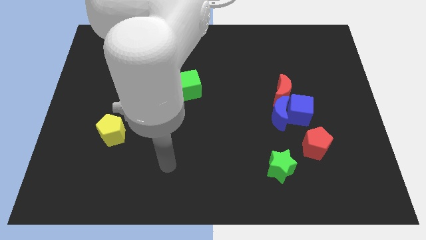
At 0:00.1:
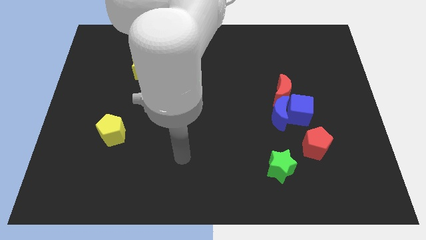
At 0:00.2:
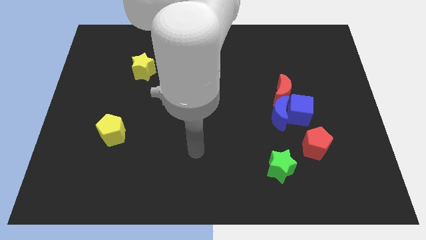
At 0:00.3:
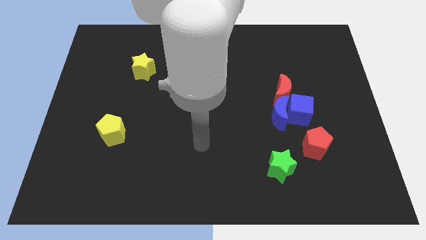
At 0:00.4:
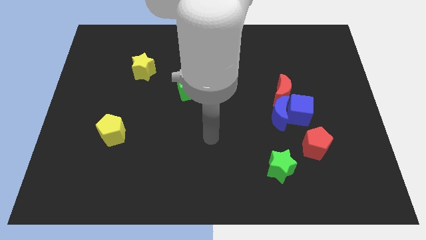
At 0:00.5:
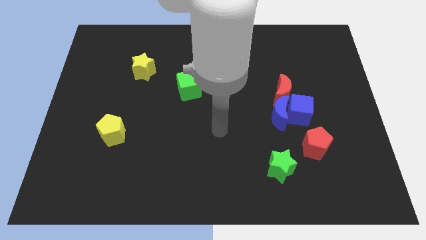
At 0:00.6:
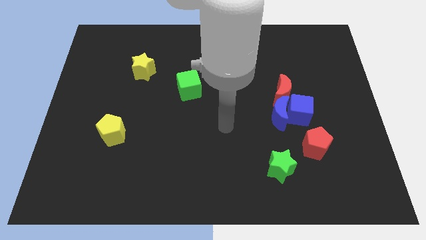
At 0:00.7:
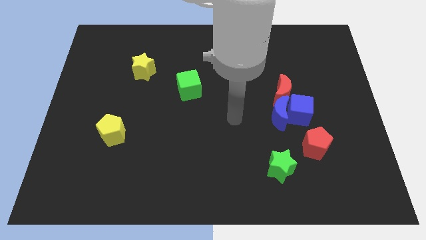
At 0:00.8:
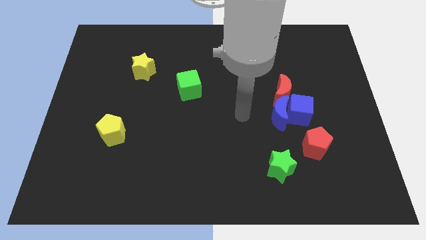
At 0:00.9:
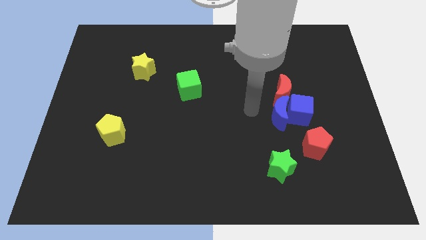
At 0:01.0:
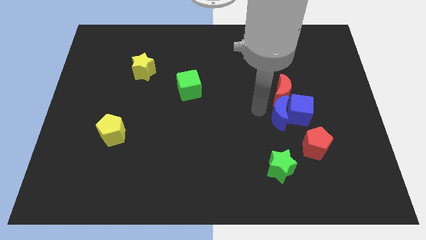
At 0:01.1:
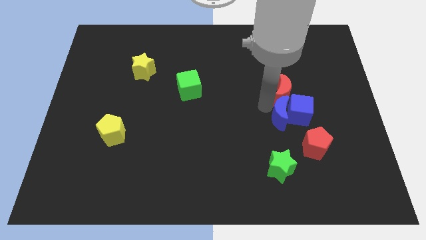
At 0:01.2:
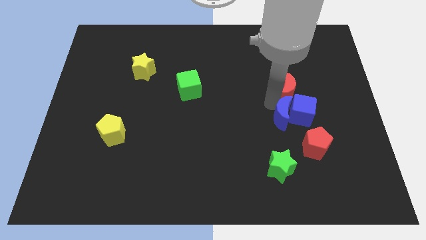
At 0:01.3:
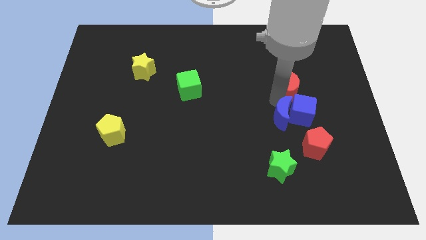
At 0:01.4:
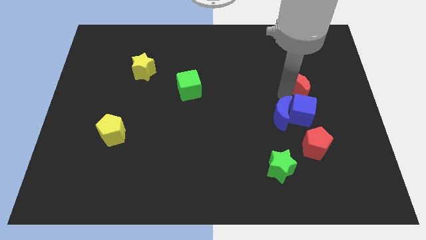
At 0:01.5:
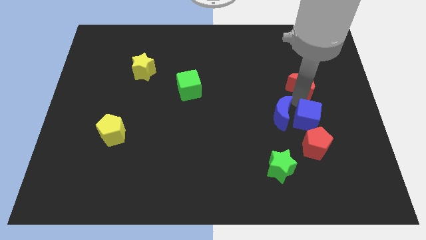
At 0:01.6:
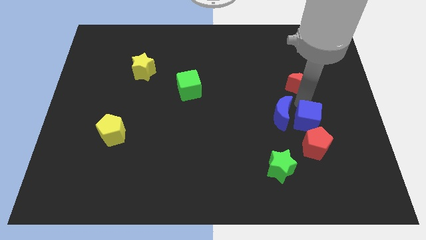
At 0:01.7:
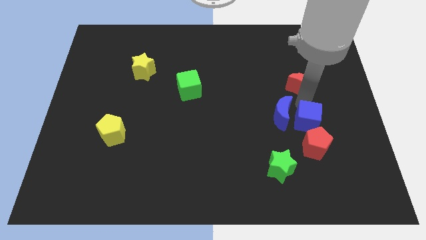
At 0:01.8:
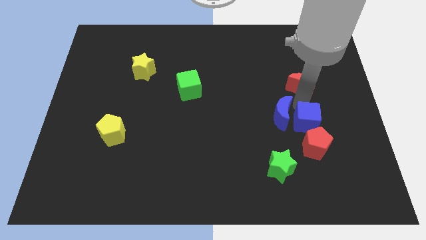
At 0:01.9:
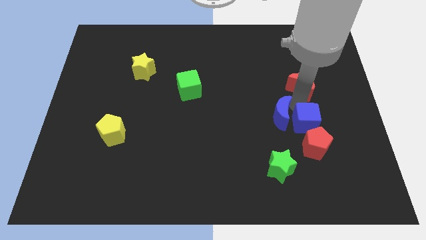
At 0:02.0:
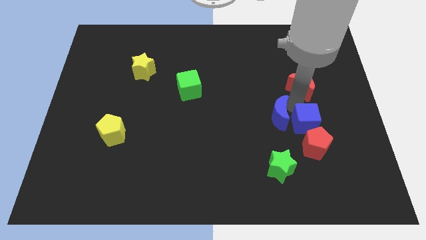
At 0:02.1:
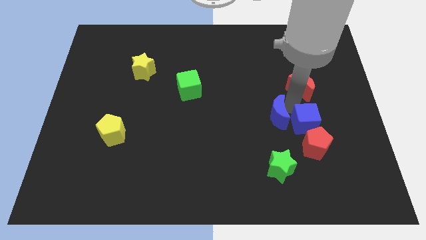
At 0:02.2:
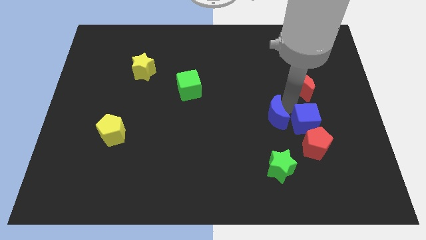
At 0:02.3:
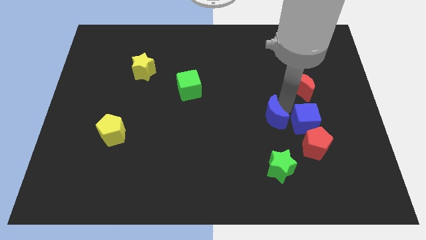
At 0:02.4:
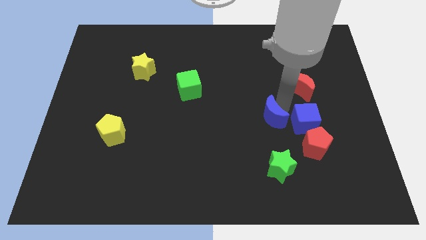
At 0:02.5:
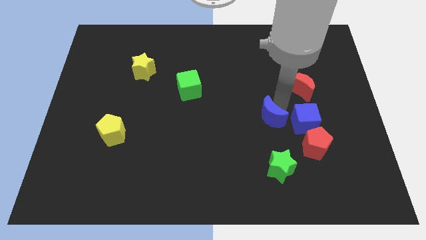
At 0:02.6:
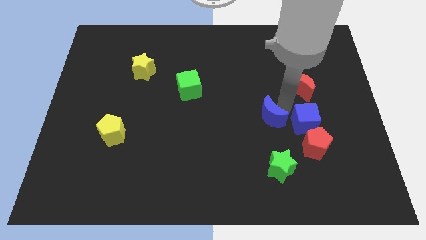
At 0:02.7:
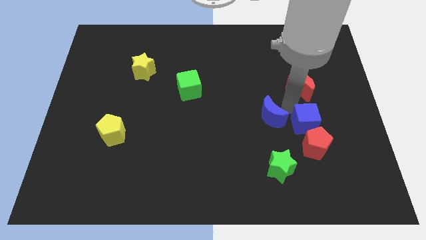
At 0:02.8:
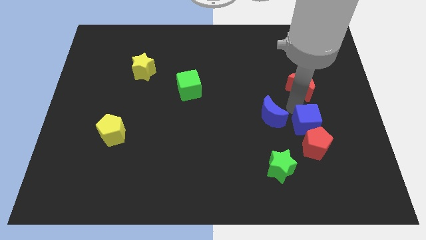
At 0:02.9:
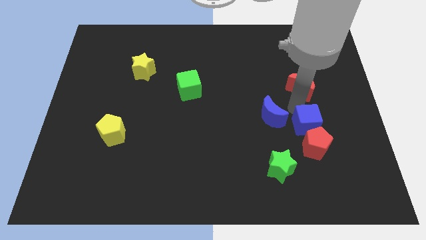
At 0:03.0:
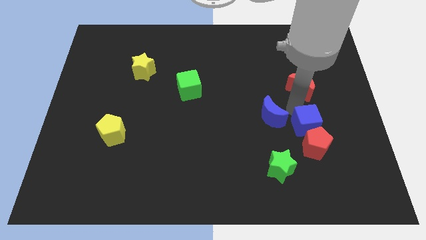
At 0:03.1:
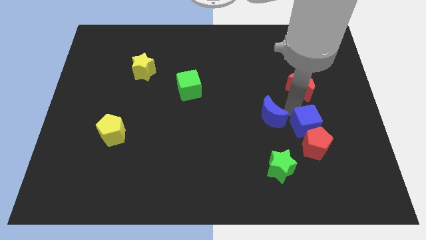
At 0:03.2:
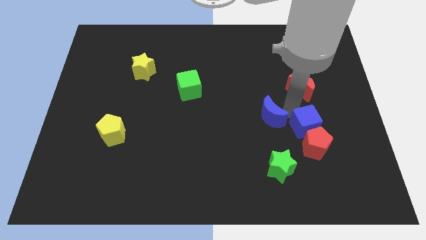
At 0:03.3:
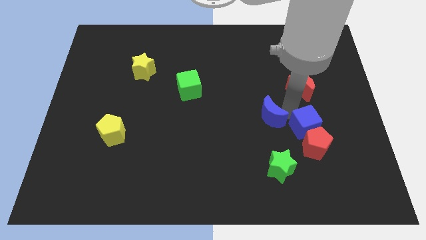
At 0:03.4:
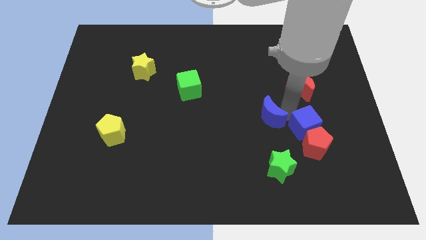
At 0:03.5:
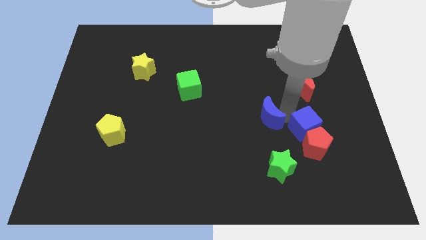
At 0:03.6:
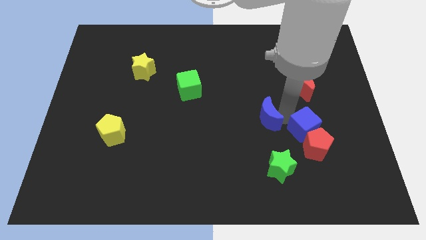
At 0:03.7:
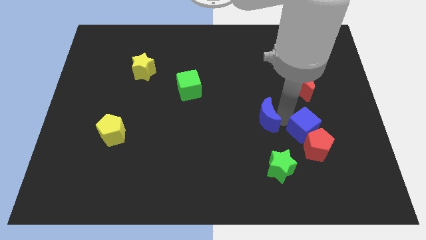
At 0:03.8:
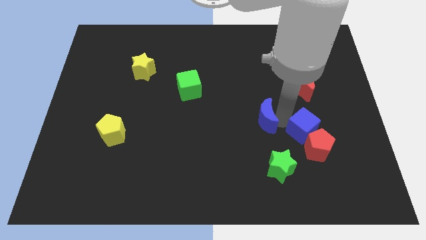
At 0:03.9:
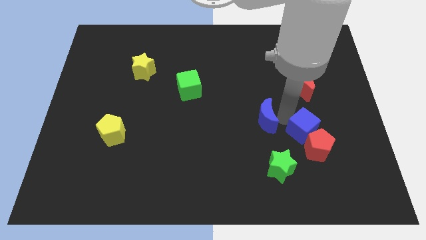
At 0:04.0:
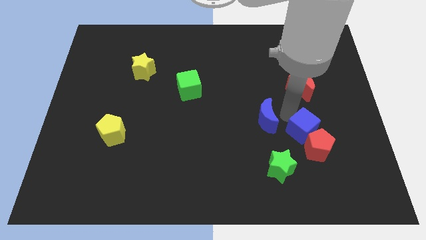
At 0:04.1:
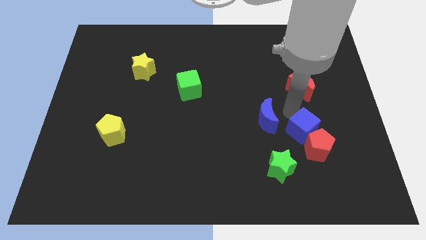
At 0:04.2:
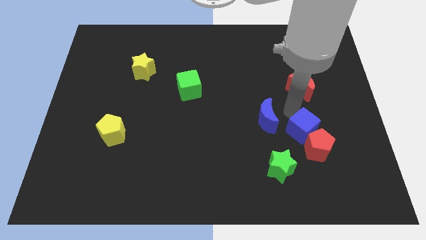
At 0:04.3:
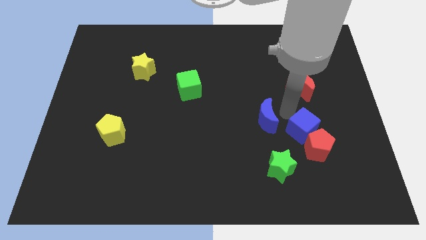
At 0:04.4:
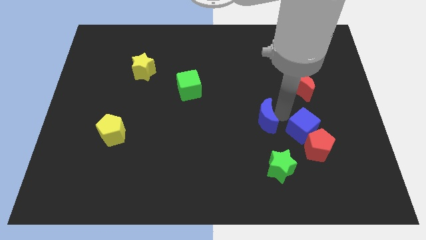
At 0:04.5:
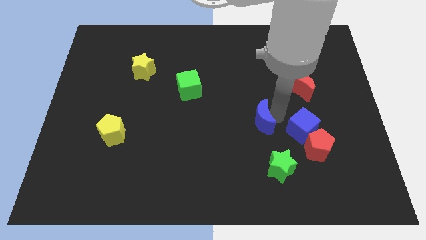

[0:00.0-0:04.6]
pull the blue moon apart from the blue cube and red moon

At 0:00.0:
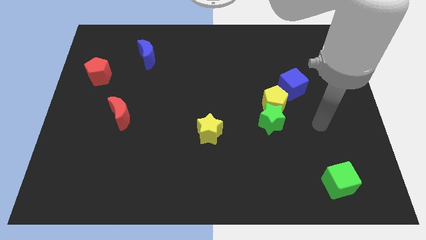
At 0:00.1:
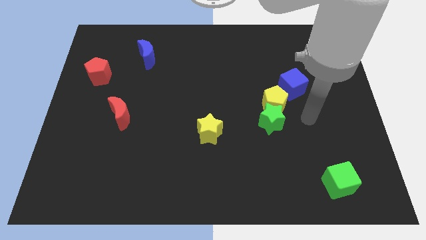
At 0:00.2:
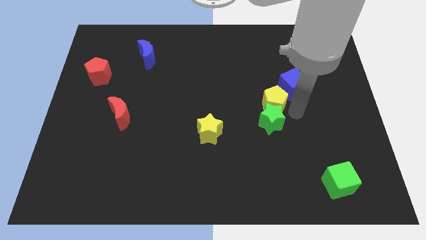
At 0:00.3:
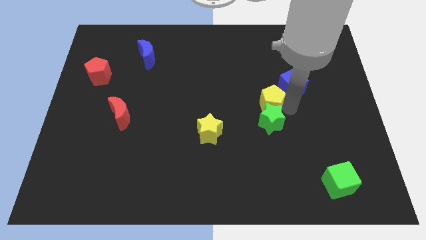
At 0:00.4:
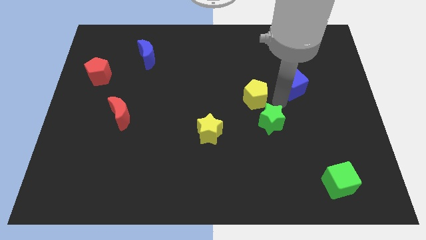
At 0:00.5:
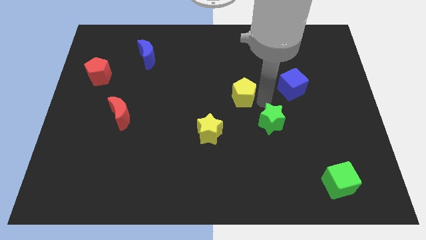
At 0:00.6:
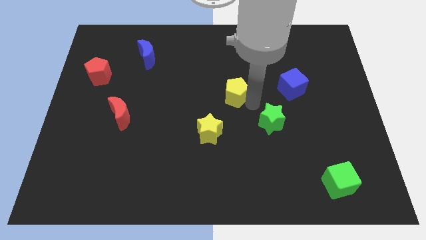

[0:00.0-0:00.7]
pull the green star apart from the yellow pentagon

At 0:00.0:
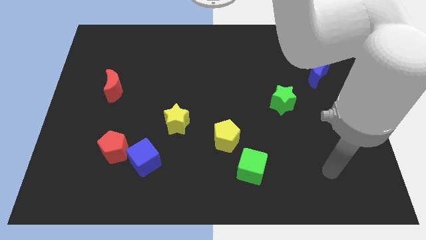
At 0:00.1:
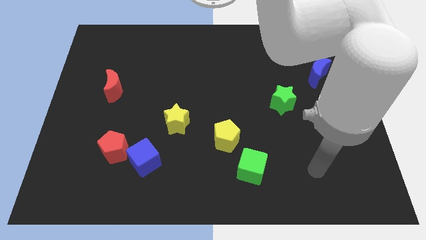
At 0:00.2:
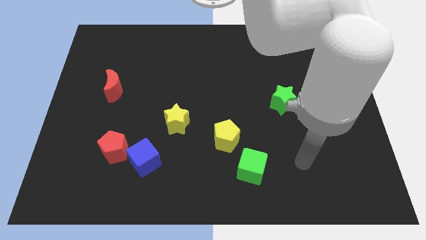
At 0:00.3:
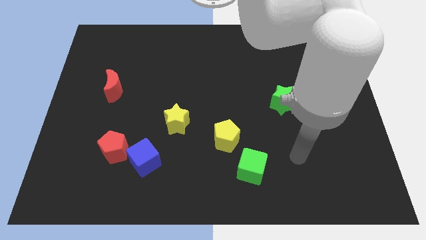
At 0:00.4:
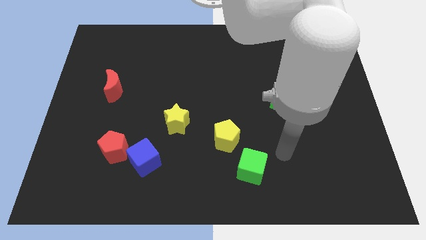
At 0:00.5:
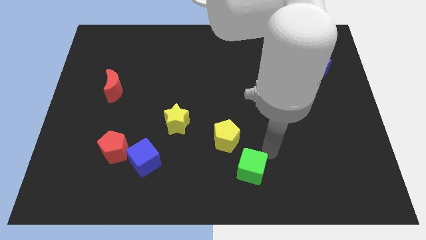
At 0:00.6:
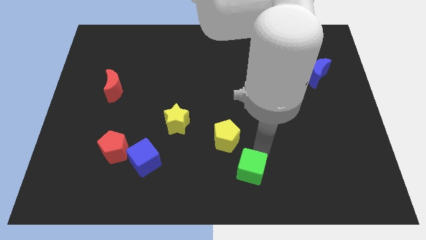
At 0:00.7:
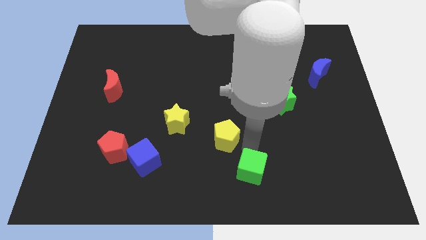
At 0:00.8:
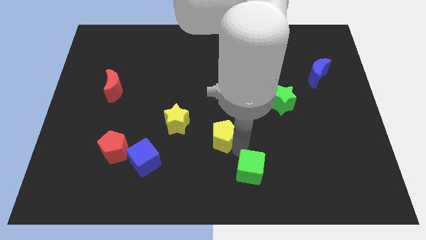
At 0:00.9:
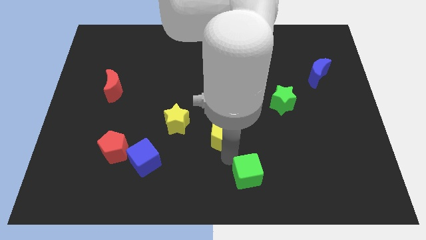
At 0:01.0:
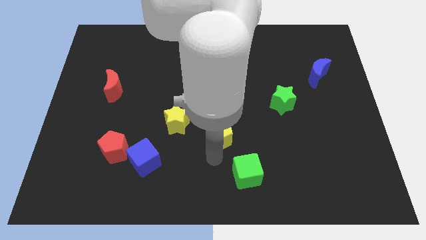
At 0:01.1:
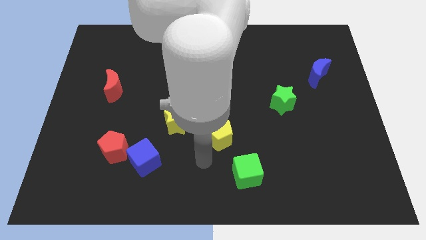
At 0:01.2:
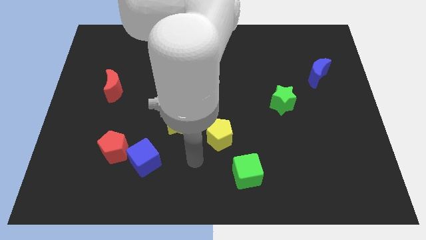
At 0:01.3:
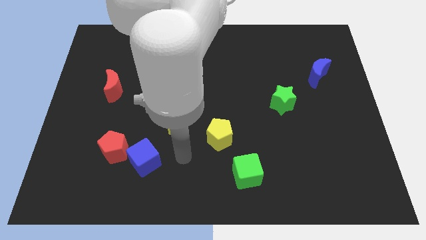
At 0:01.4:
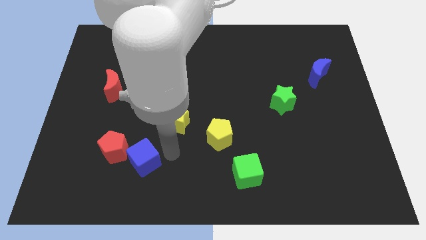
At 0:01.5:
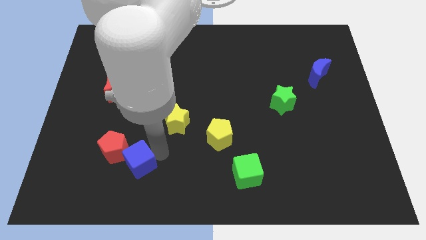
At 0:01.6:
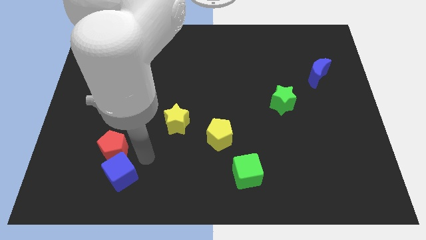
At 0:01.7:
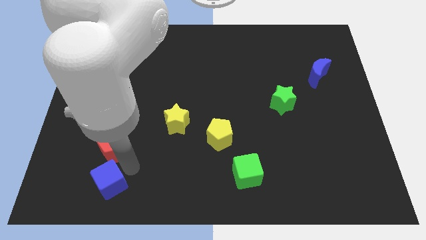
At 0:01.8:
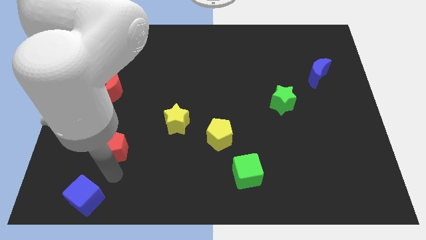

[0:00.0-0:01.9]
pull the red pentagon apart from the blue cube

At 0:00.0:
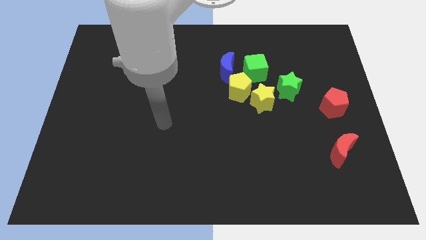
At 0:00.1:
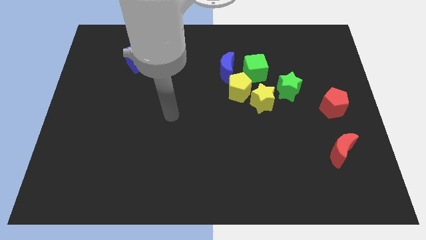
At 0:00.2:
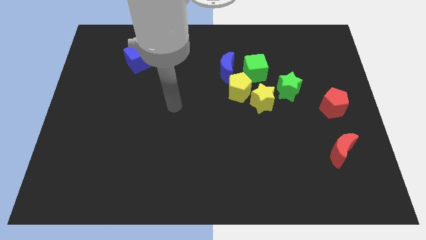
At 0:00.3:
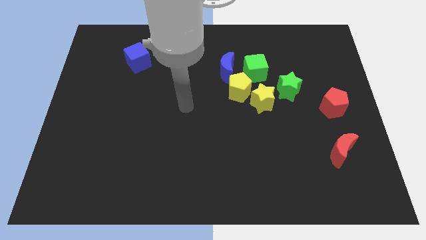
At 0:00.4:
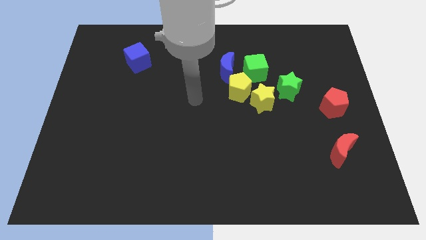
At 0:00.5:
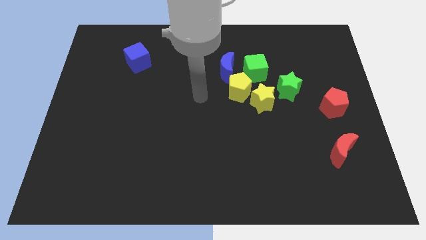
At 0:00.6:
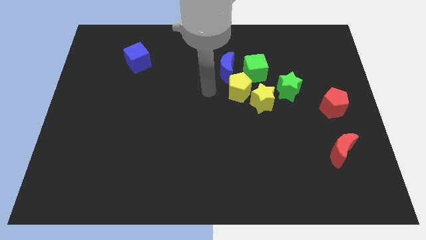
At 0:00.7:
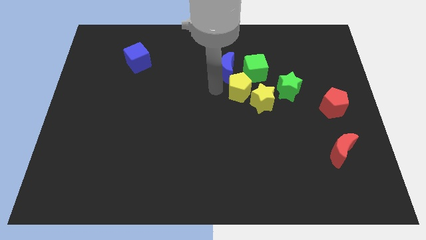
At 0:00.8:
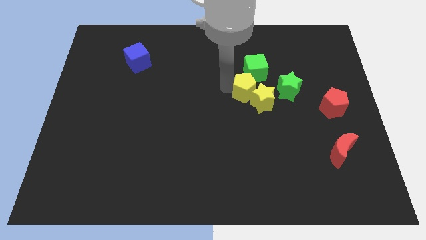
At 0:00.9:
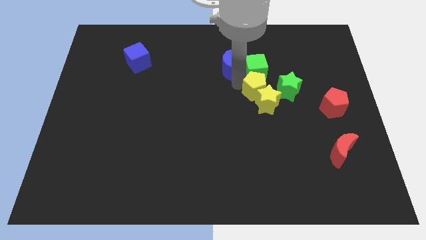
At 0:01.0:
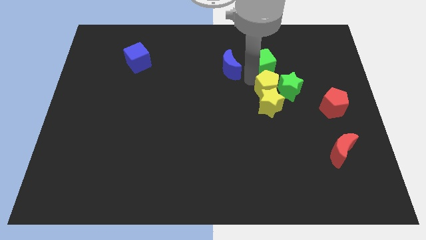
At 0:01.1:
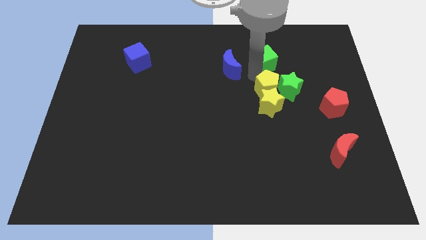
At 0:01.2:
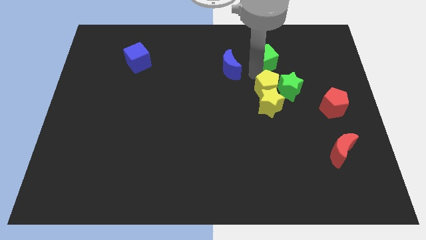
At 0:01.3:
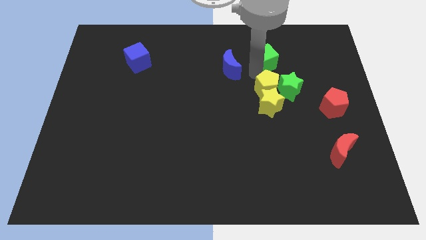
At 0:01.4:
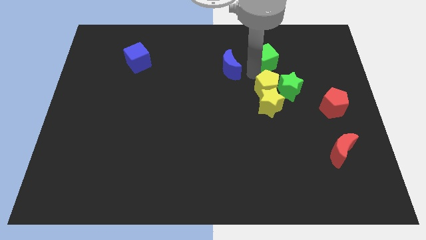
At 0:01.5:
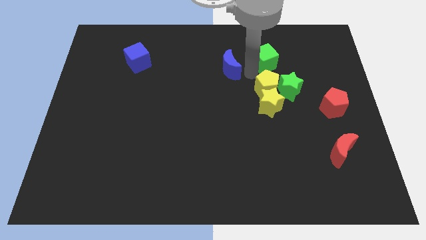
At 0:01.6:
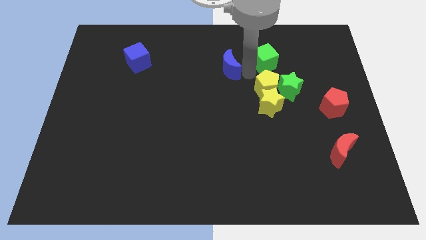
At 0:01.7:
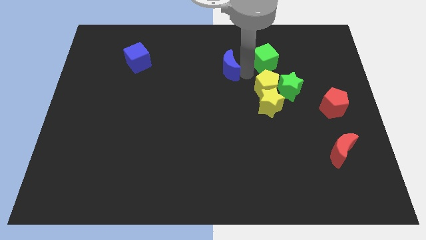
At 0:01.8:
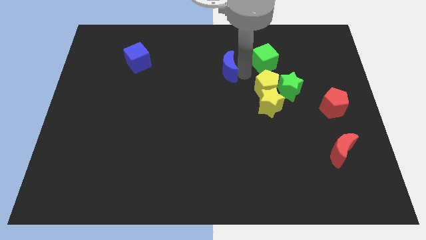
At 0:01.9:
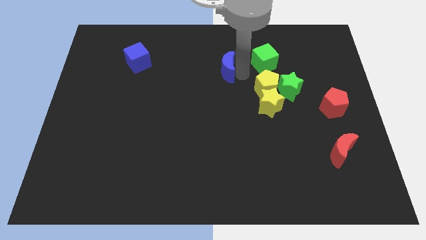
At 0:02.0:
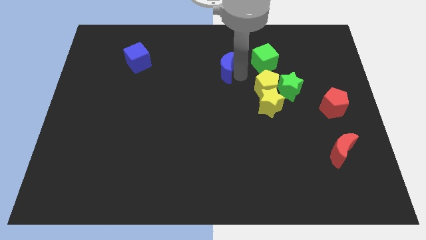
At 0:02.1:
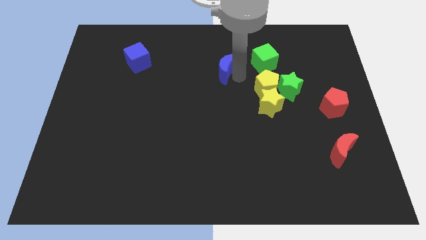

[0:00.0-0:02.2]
move the blue moon away from the yellow pentagon and green cube
